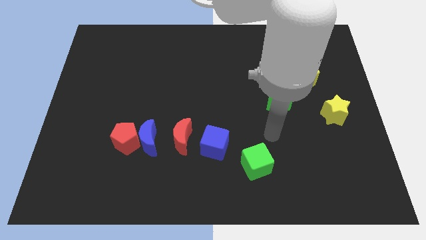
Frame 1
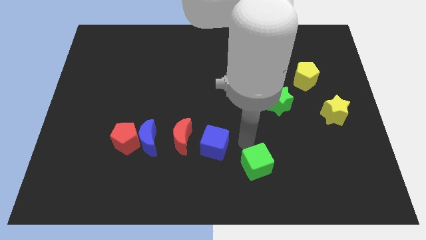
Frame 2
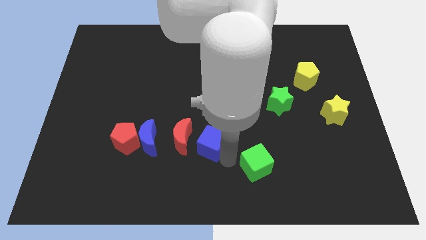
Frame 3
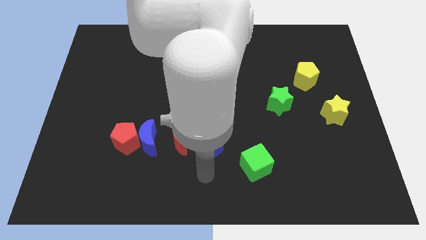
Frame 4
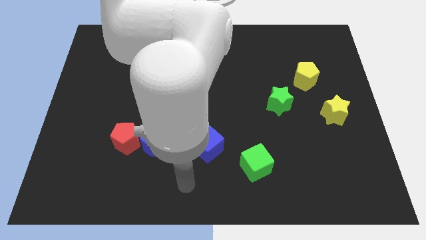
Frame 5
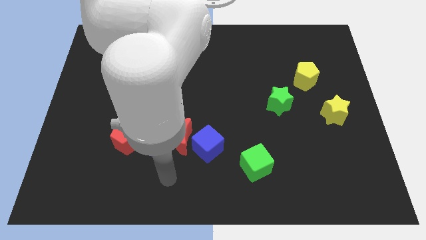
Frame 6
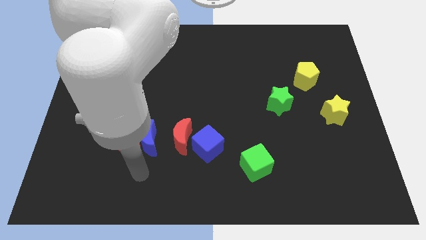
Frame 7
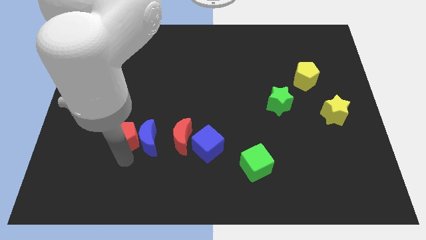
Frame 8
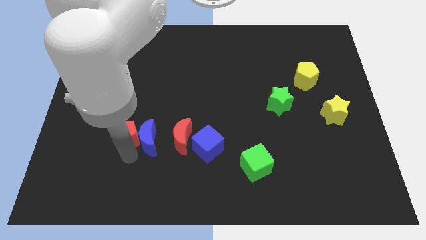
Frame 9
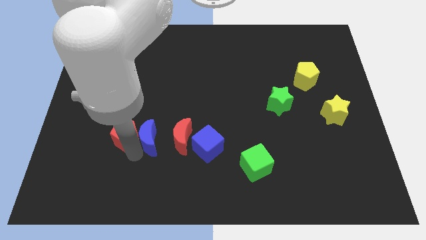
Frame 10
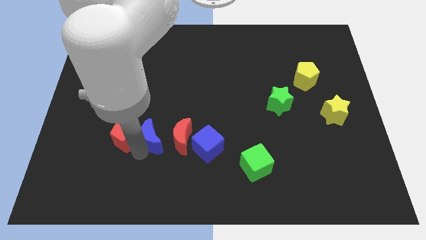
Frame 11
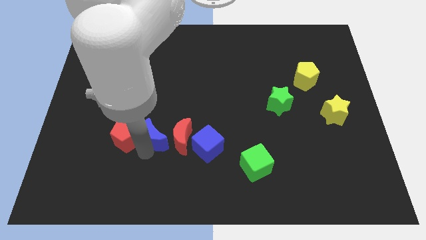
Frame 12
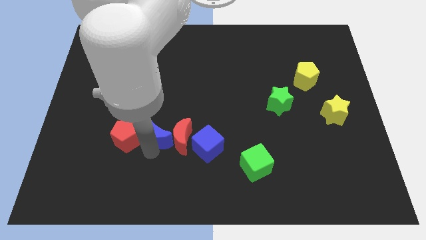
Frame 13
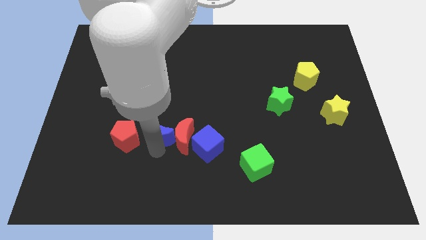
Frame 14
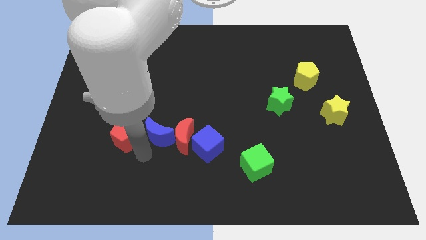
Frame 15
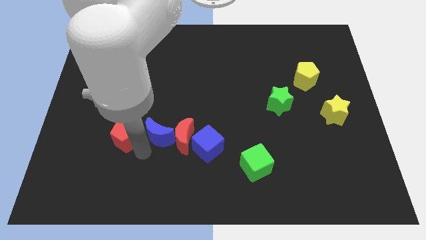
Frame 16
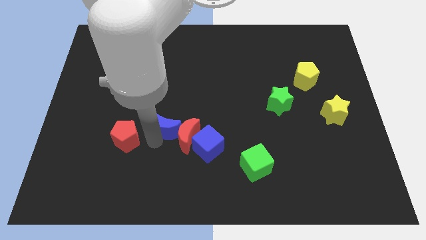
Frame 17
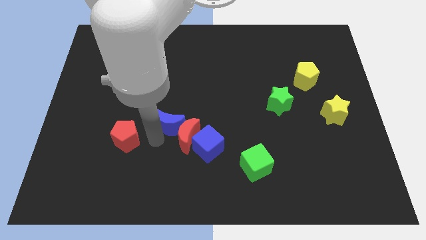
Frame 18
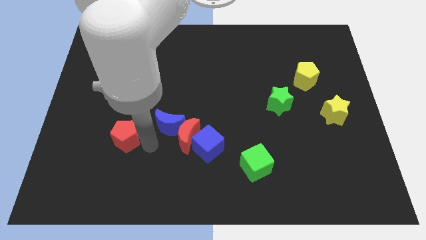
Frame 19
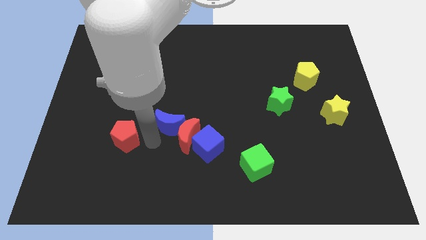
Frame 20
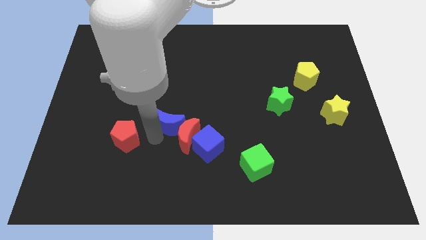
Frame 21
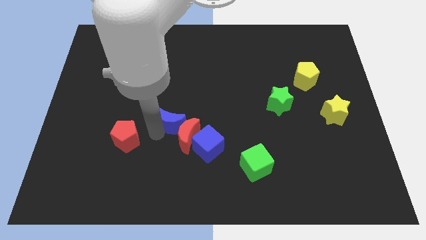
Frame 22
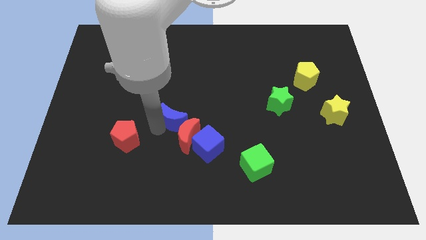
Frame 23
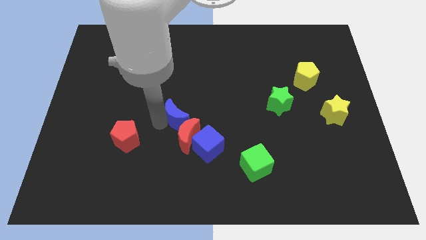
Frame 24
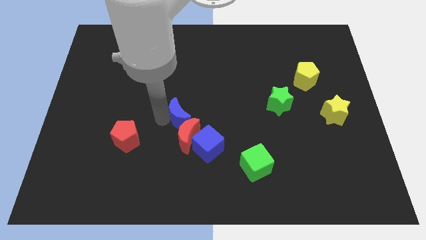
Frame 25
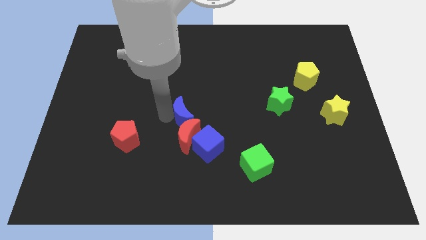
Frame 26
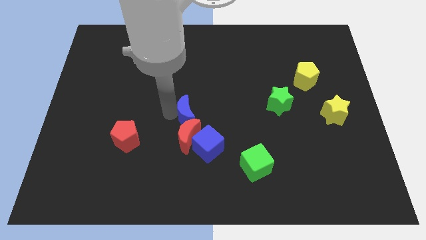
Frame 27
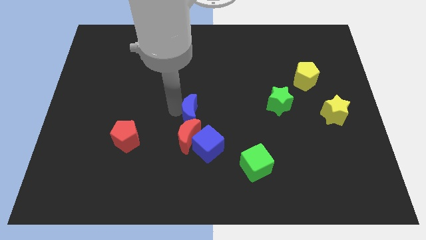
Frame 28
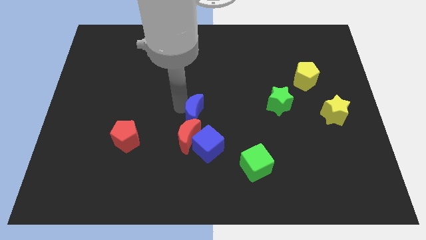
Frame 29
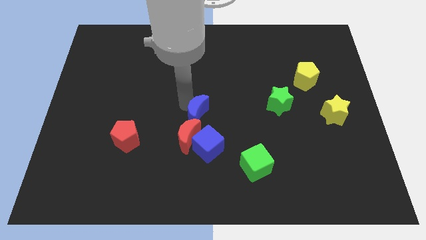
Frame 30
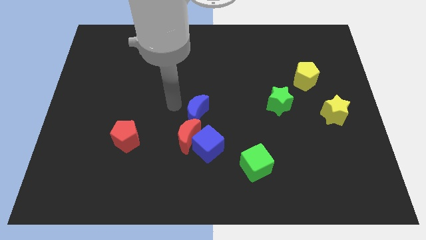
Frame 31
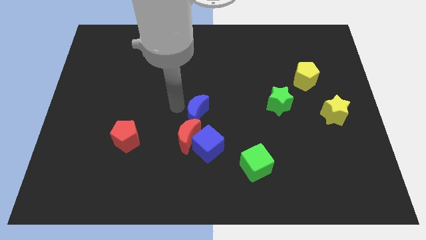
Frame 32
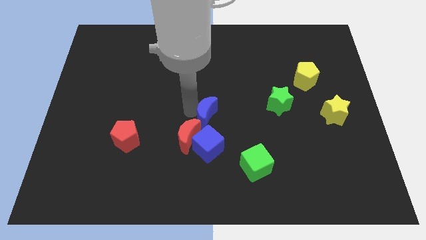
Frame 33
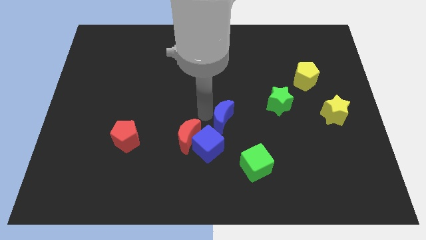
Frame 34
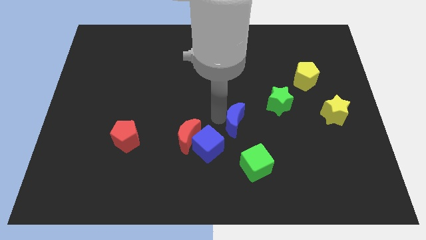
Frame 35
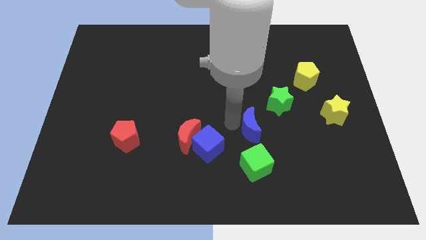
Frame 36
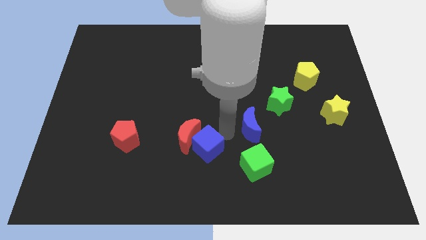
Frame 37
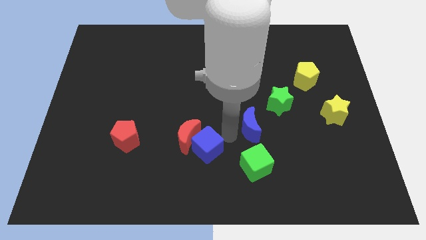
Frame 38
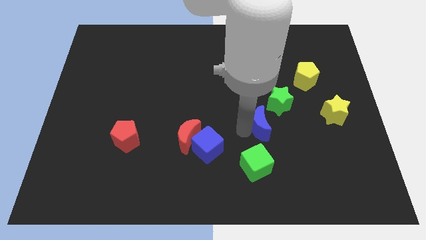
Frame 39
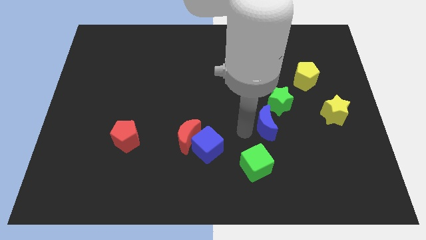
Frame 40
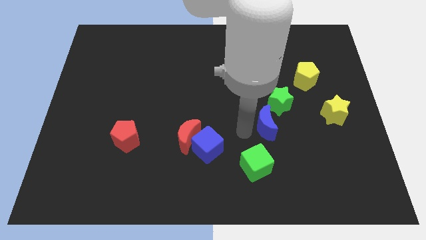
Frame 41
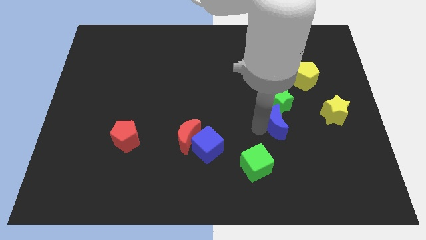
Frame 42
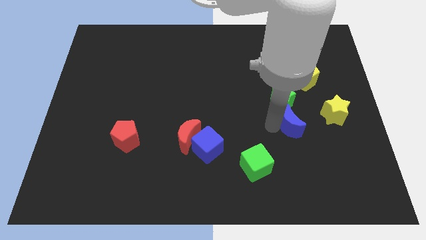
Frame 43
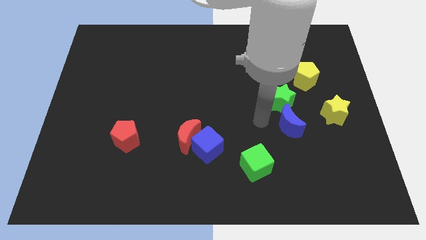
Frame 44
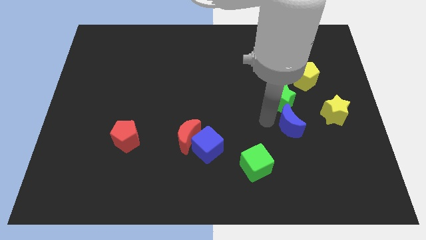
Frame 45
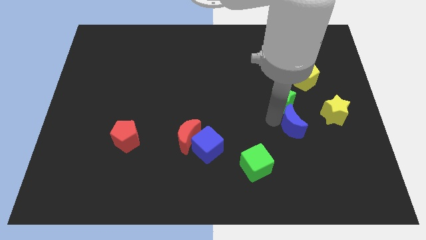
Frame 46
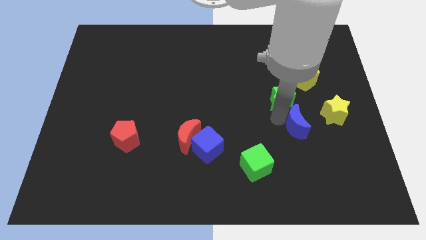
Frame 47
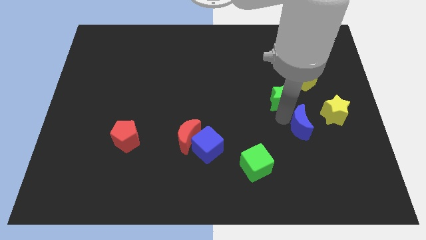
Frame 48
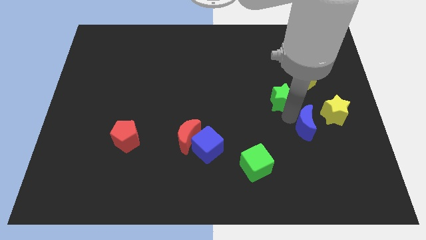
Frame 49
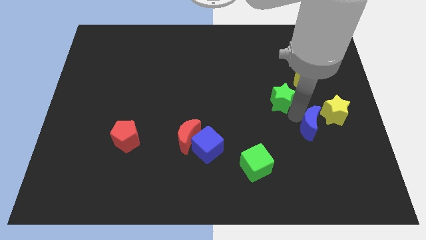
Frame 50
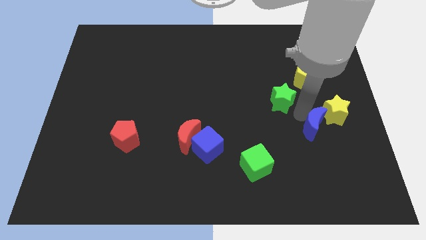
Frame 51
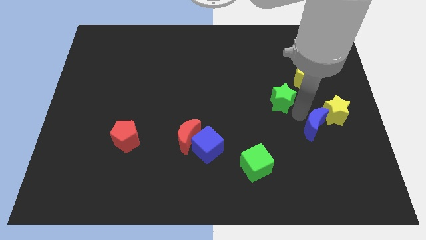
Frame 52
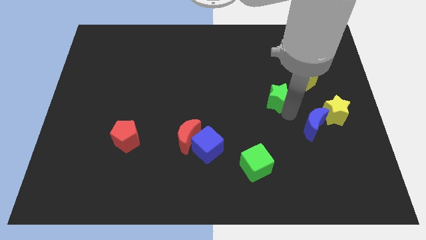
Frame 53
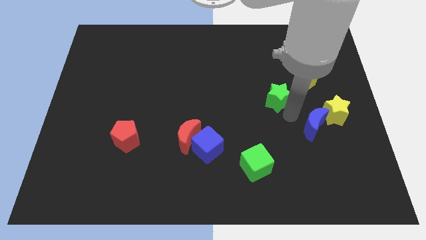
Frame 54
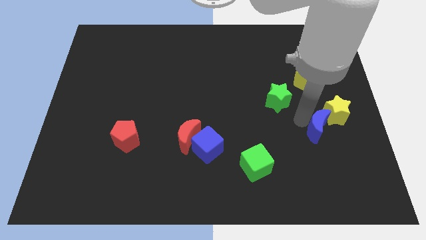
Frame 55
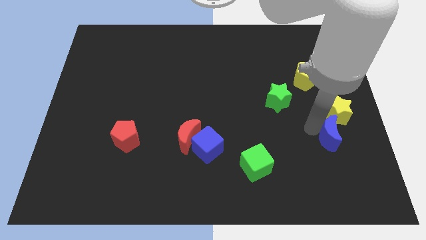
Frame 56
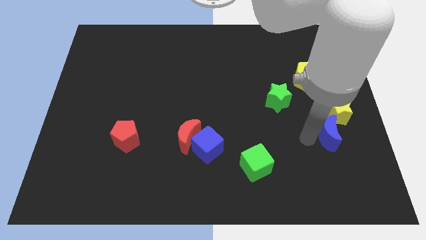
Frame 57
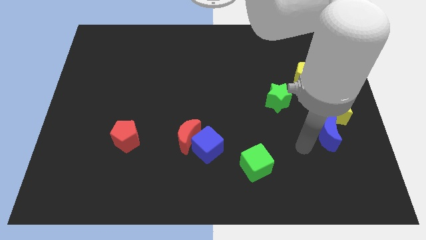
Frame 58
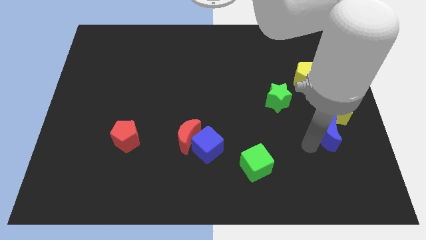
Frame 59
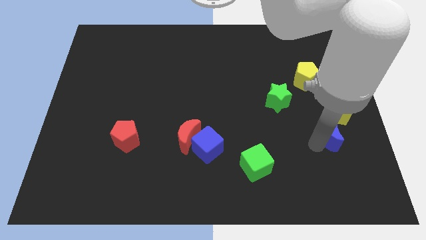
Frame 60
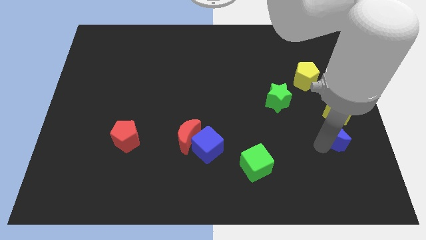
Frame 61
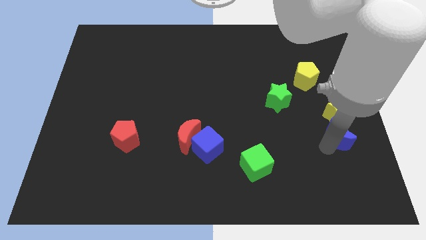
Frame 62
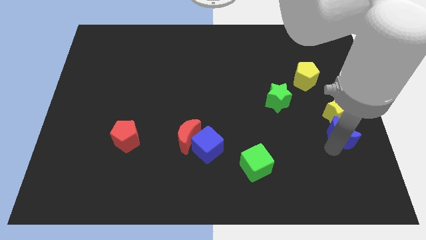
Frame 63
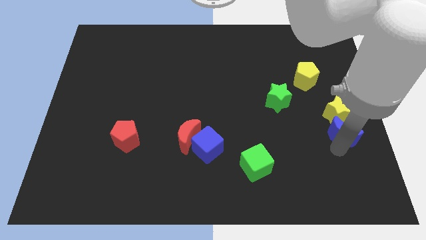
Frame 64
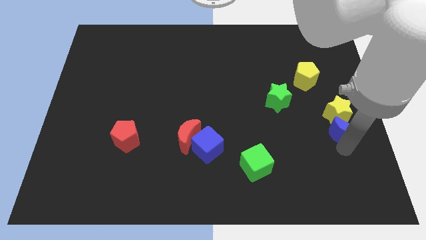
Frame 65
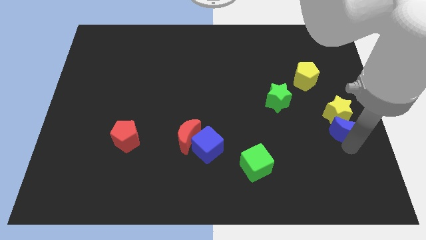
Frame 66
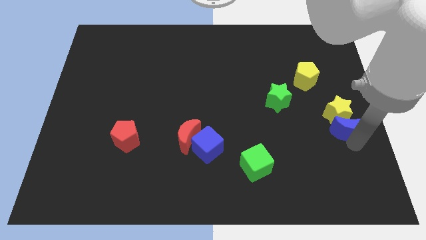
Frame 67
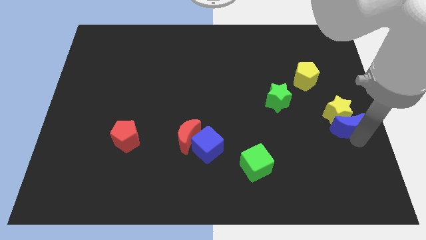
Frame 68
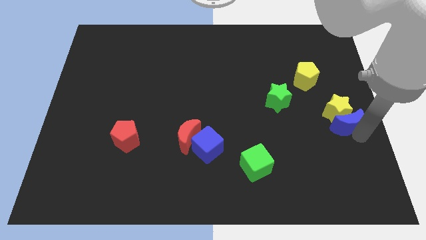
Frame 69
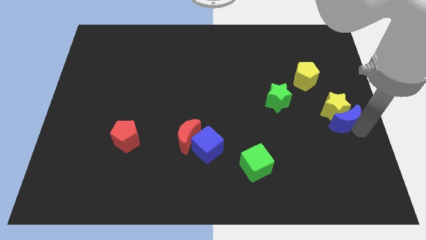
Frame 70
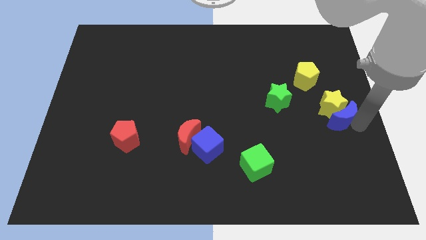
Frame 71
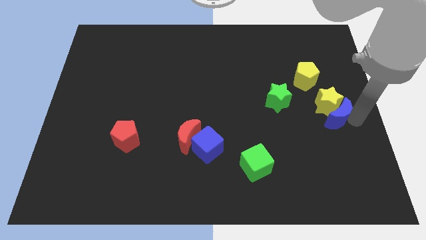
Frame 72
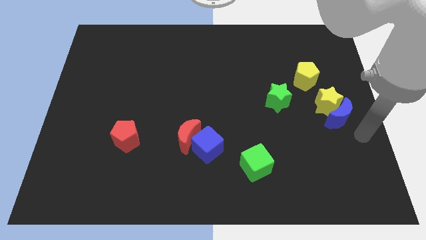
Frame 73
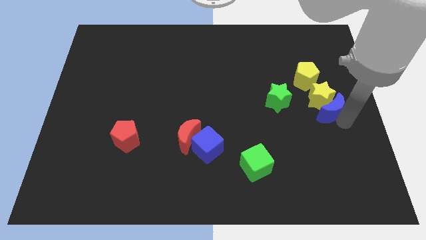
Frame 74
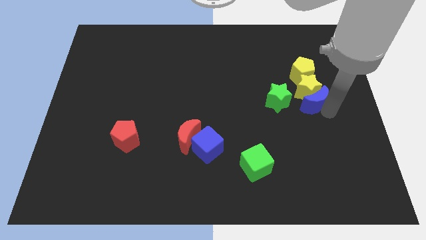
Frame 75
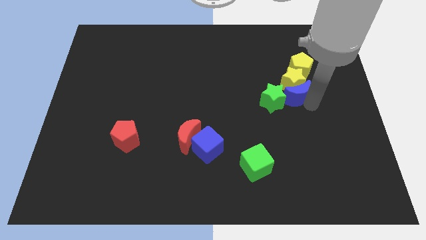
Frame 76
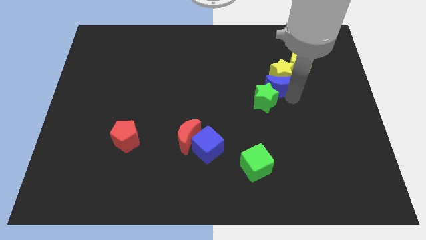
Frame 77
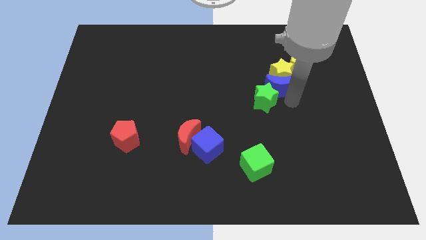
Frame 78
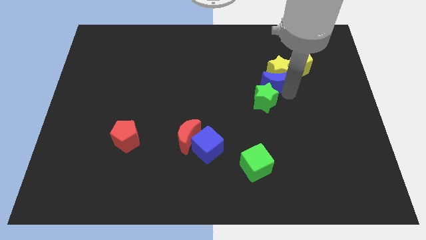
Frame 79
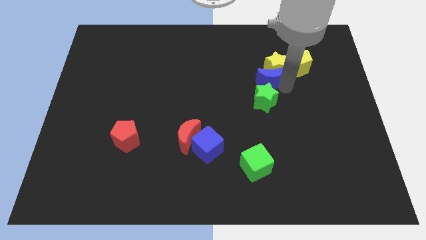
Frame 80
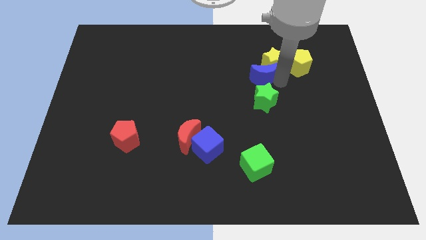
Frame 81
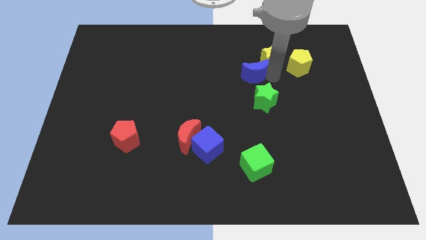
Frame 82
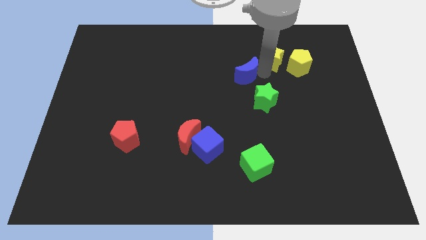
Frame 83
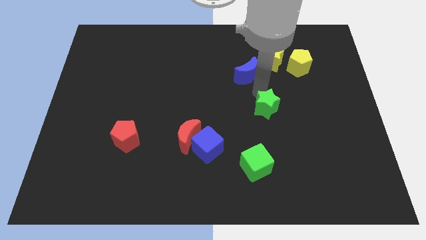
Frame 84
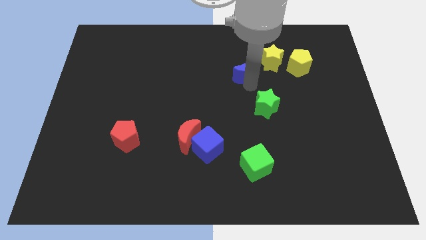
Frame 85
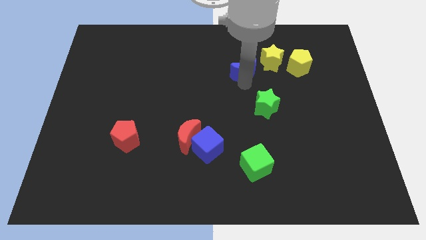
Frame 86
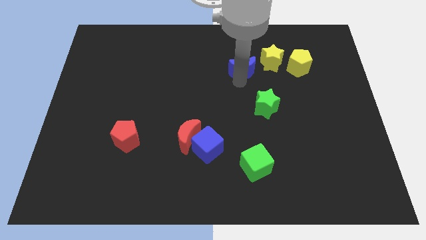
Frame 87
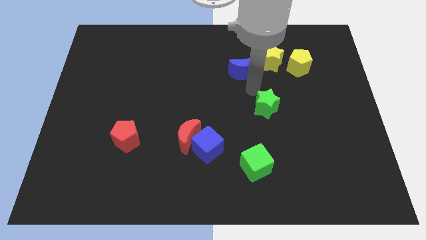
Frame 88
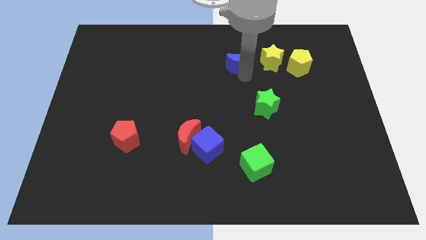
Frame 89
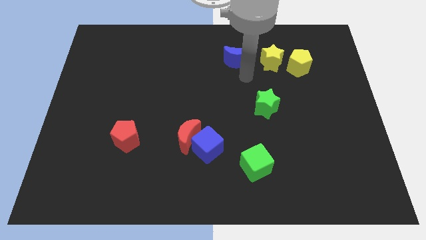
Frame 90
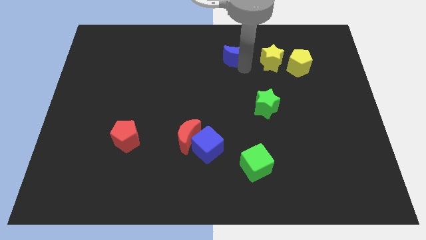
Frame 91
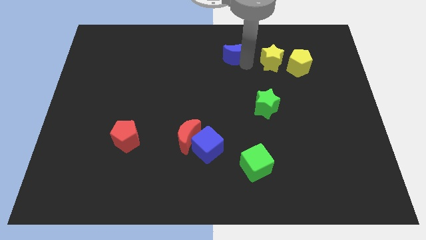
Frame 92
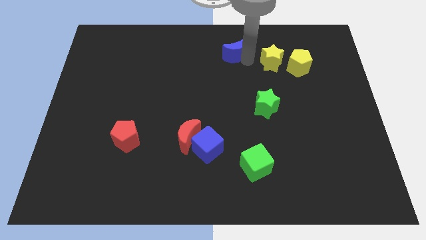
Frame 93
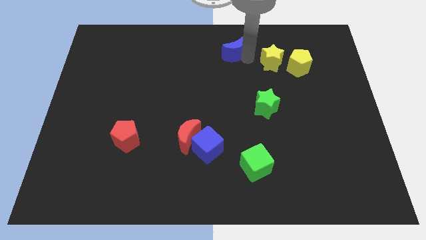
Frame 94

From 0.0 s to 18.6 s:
move the blue moon to the top side
